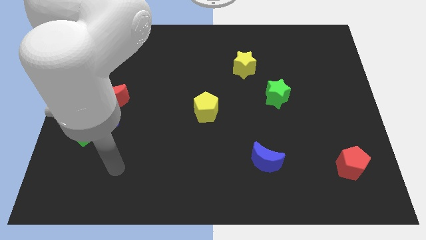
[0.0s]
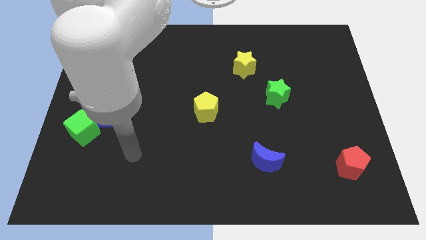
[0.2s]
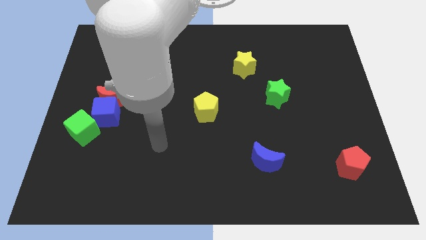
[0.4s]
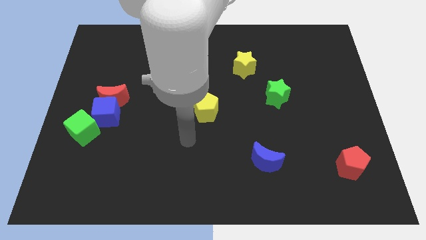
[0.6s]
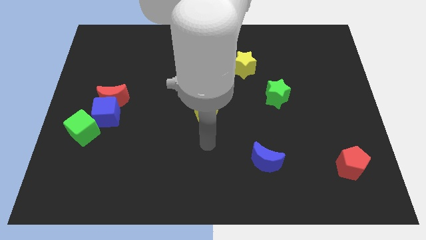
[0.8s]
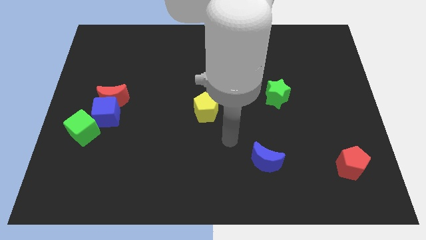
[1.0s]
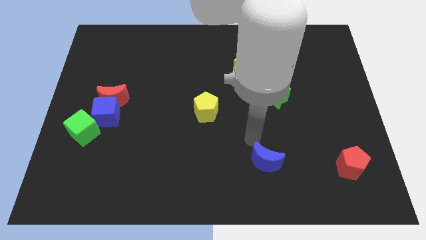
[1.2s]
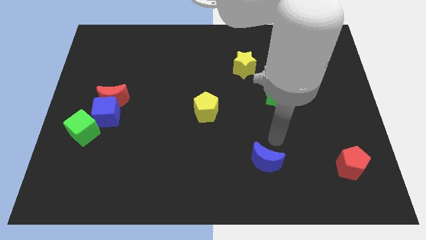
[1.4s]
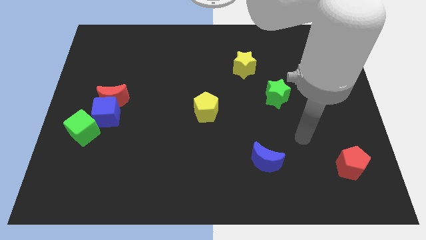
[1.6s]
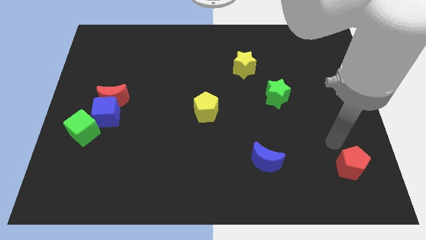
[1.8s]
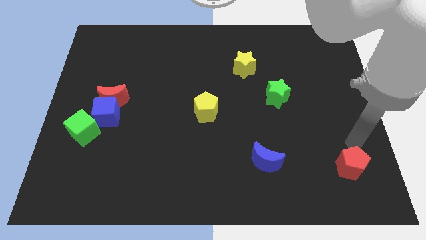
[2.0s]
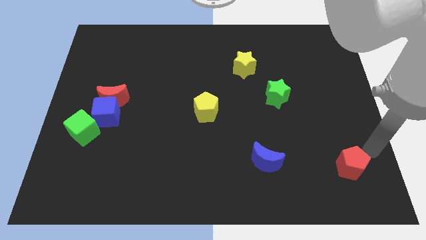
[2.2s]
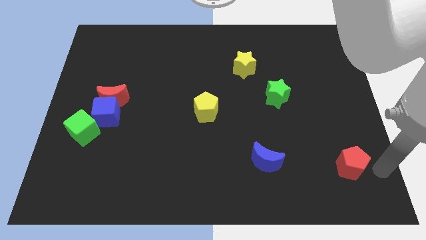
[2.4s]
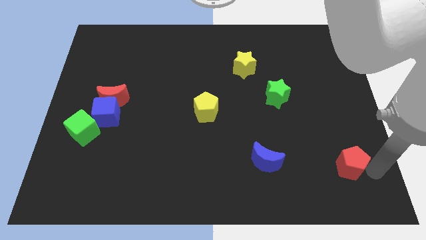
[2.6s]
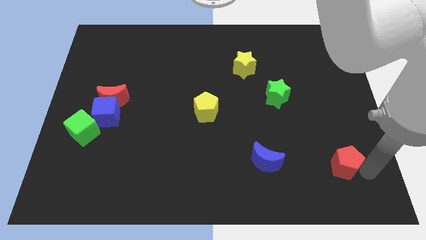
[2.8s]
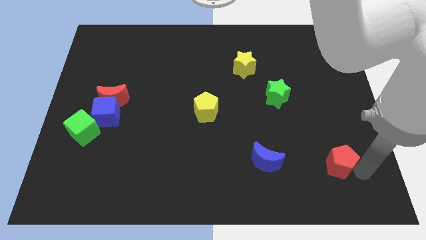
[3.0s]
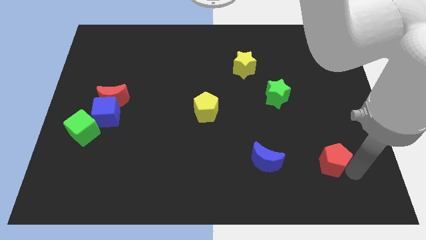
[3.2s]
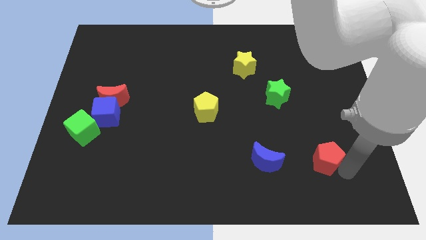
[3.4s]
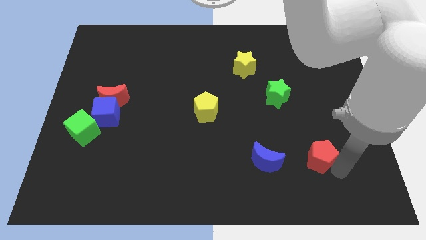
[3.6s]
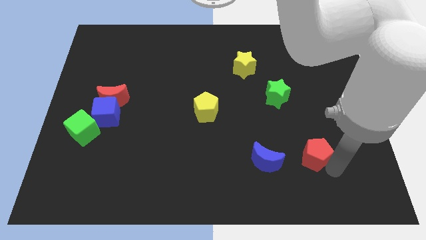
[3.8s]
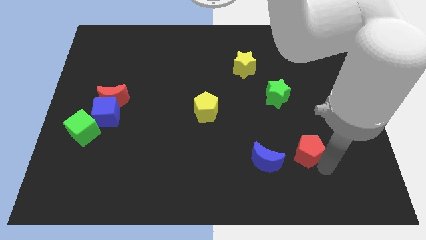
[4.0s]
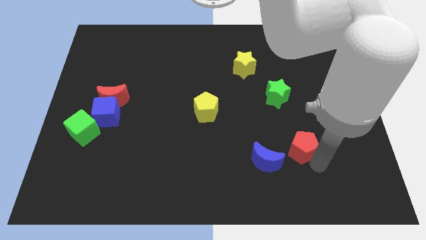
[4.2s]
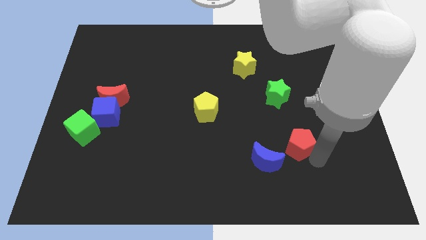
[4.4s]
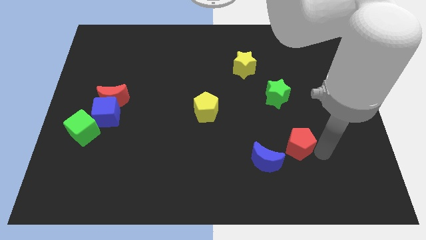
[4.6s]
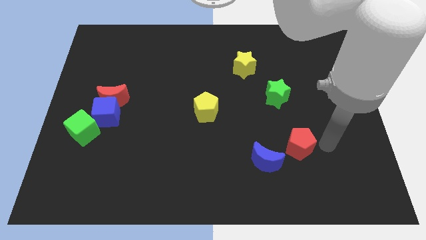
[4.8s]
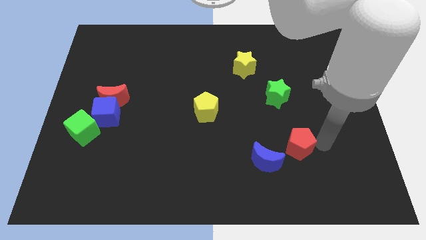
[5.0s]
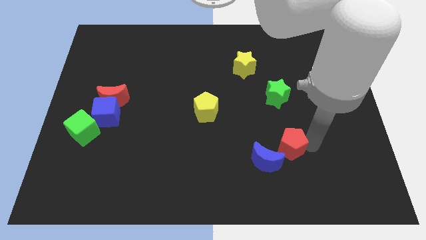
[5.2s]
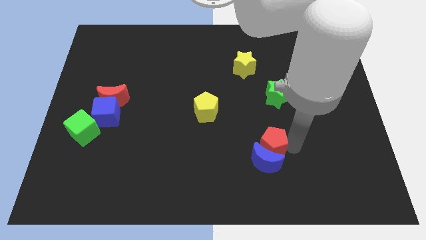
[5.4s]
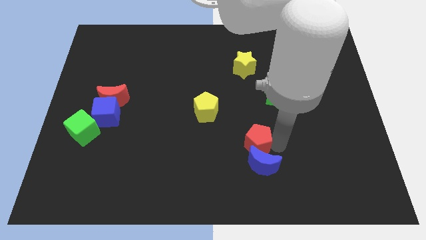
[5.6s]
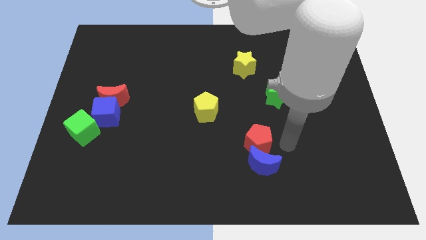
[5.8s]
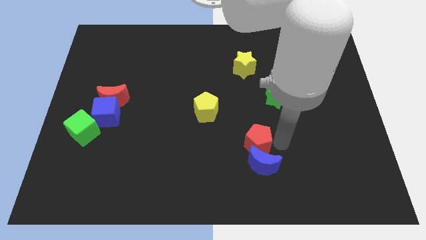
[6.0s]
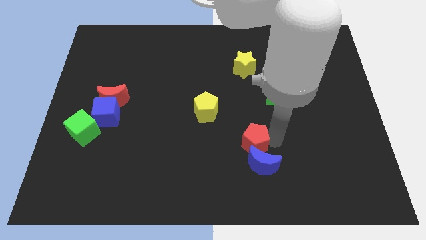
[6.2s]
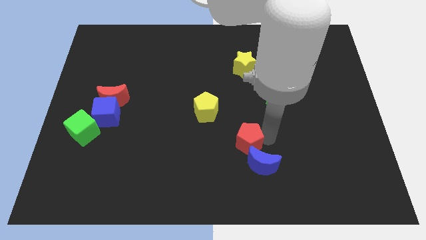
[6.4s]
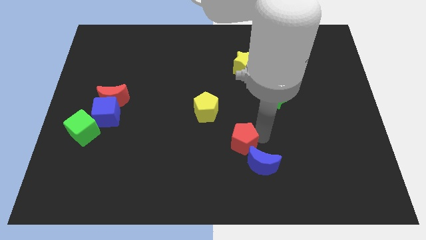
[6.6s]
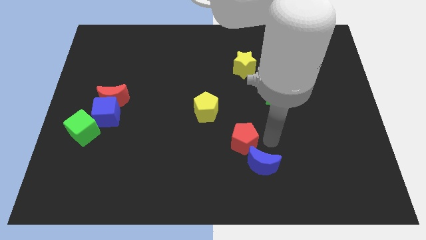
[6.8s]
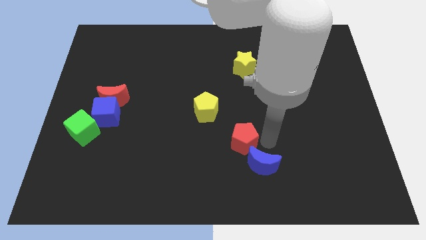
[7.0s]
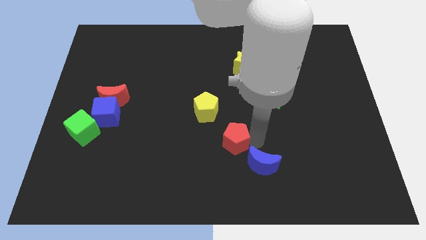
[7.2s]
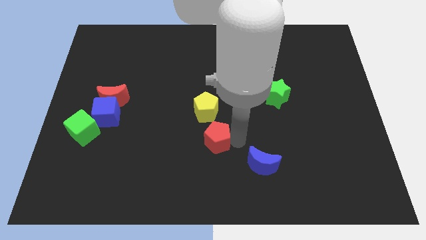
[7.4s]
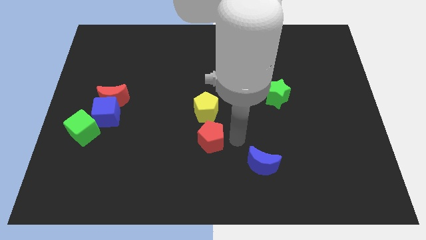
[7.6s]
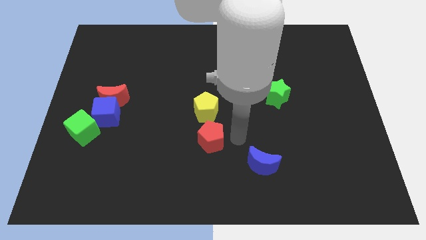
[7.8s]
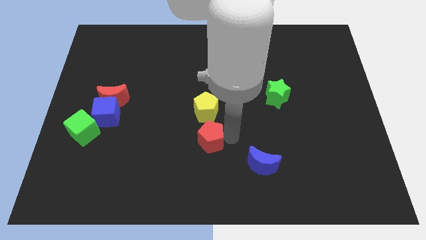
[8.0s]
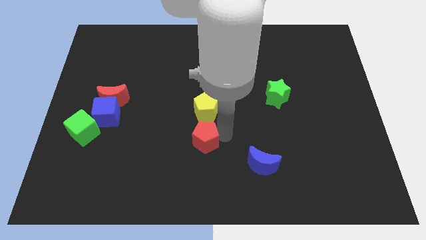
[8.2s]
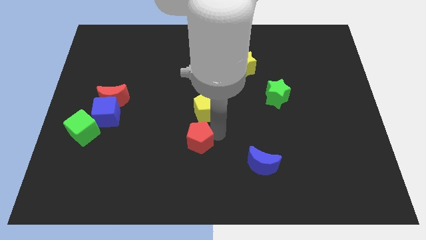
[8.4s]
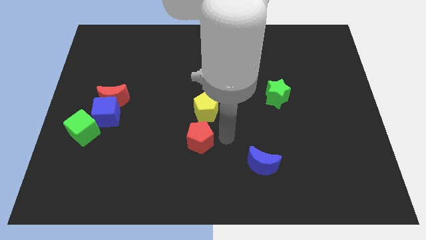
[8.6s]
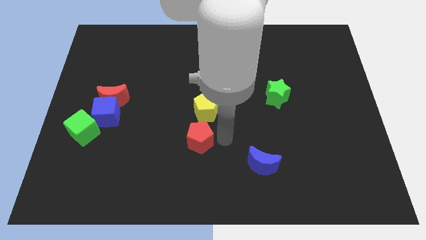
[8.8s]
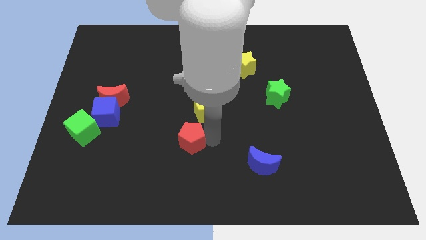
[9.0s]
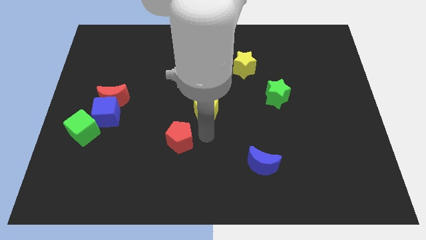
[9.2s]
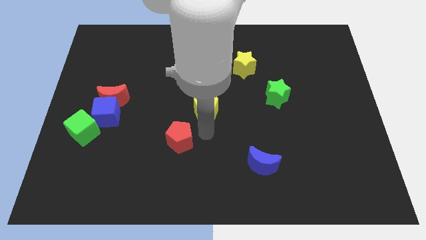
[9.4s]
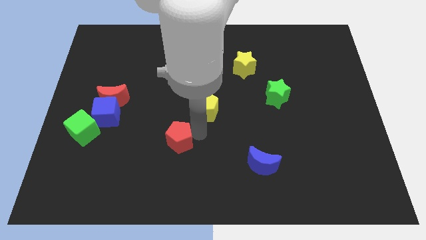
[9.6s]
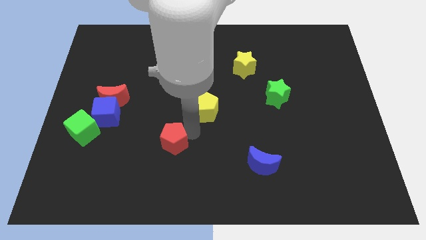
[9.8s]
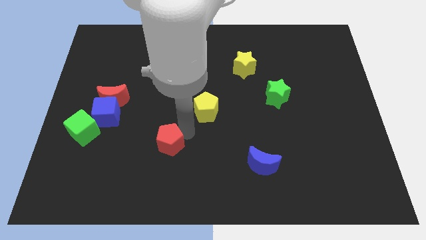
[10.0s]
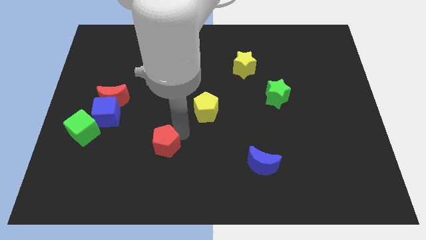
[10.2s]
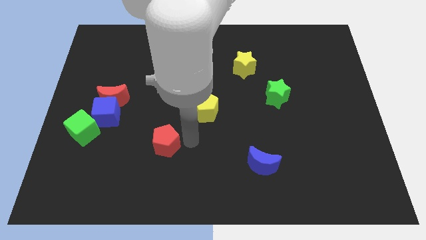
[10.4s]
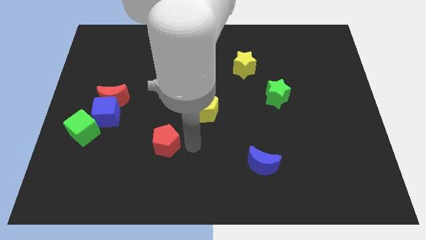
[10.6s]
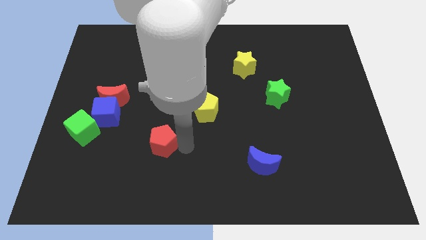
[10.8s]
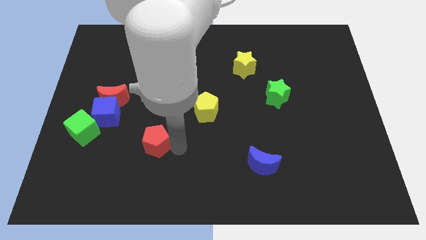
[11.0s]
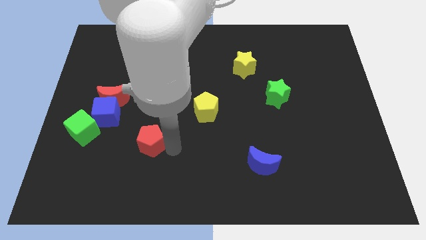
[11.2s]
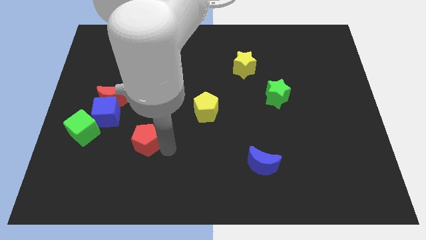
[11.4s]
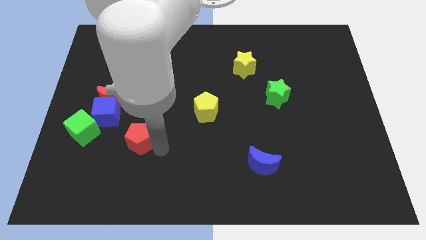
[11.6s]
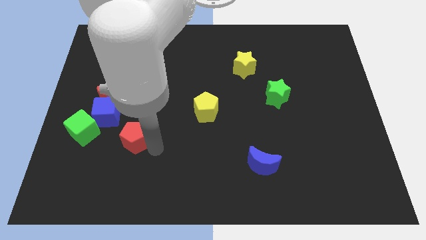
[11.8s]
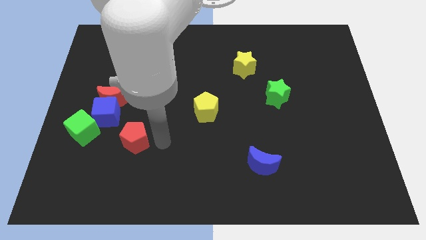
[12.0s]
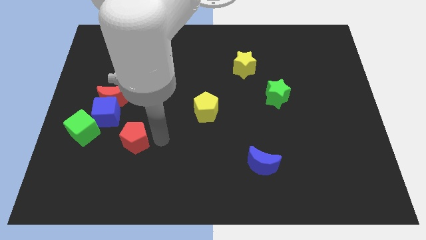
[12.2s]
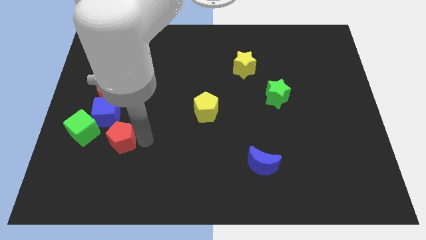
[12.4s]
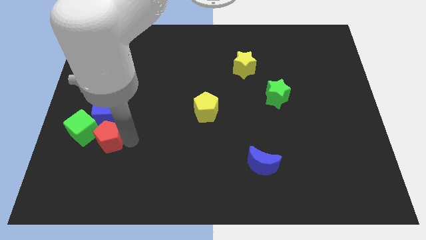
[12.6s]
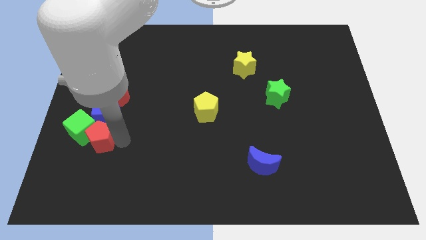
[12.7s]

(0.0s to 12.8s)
slide the red pentagon to the green cube

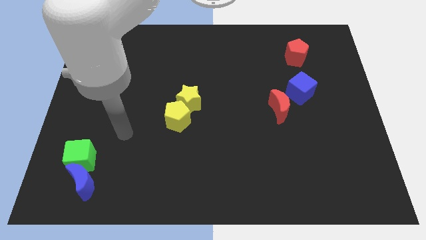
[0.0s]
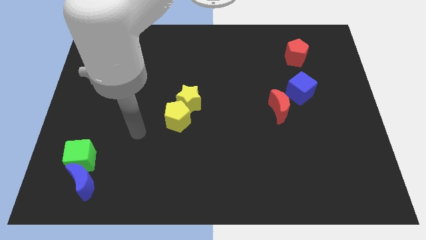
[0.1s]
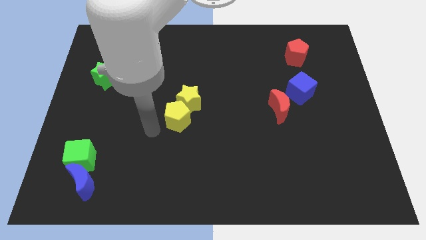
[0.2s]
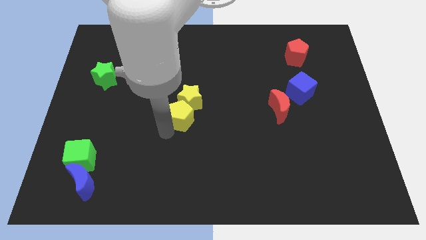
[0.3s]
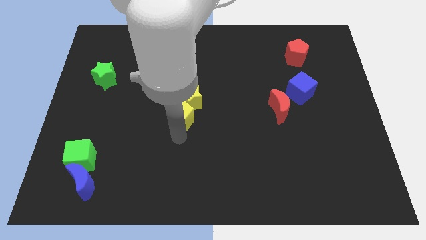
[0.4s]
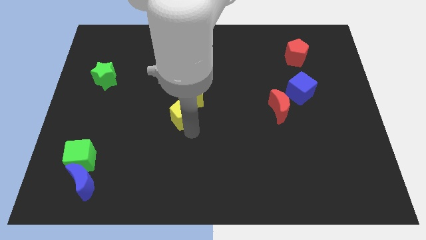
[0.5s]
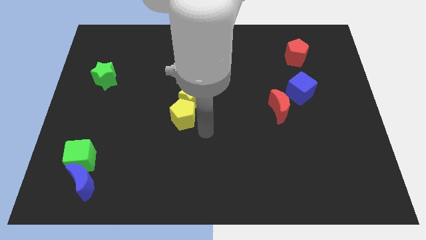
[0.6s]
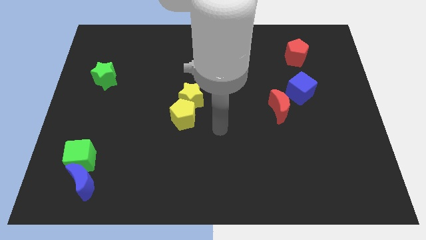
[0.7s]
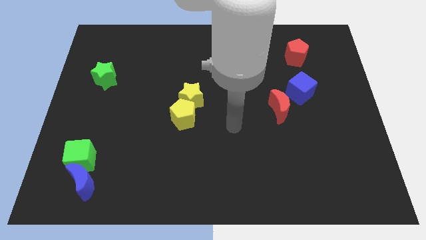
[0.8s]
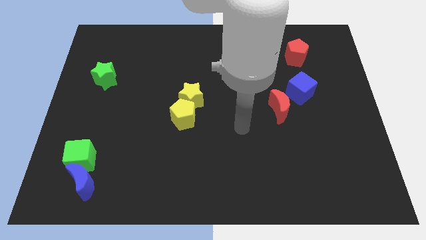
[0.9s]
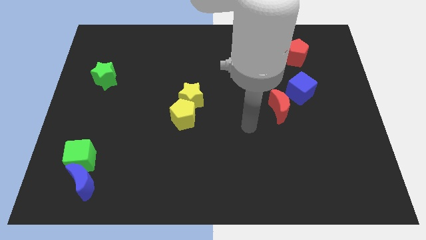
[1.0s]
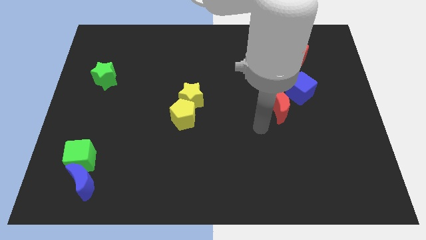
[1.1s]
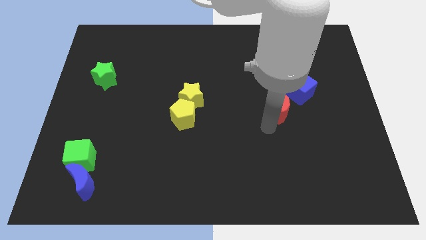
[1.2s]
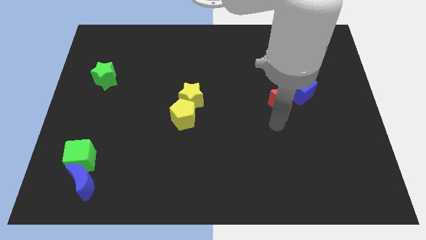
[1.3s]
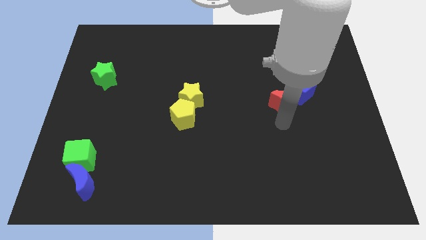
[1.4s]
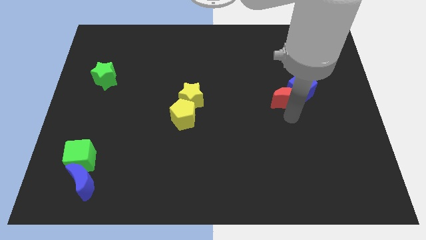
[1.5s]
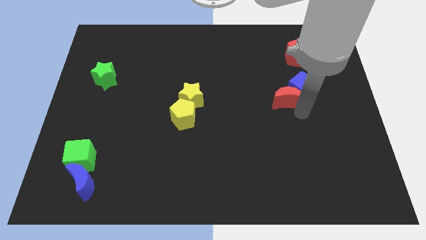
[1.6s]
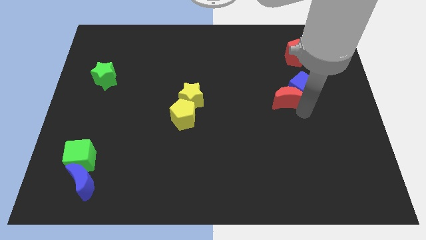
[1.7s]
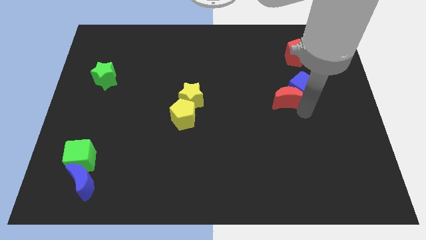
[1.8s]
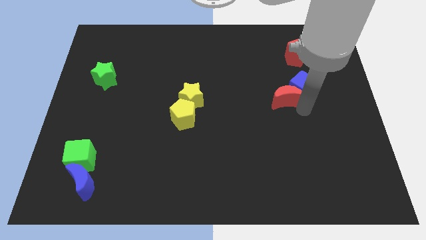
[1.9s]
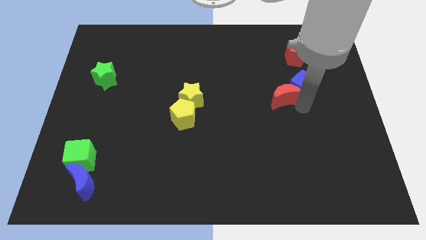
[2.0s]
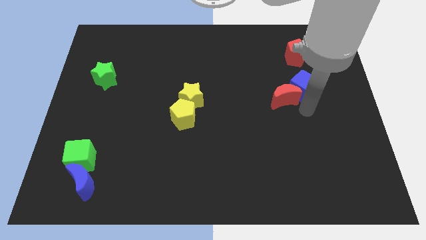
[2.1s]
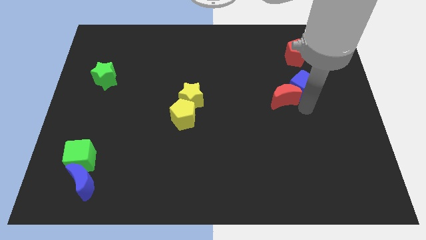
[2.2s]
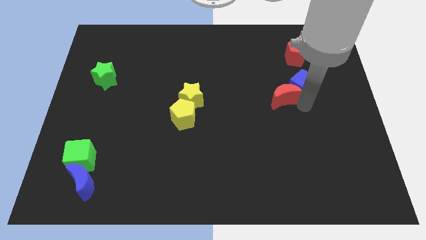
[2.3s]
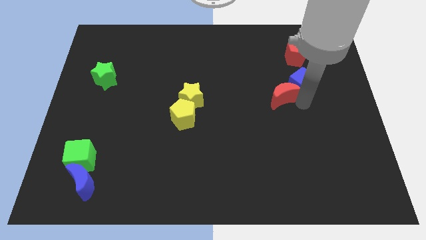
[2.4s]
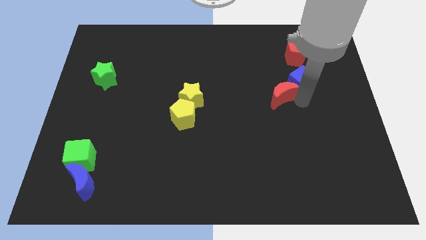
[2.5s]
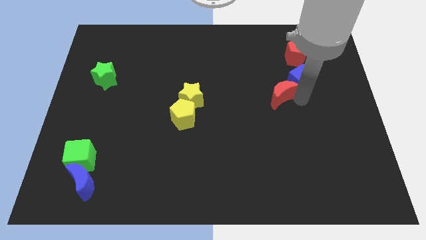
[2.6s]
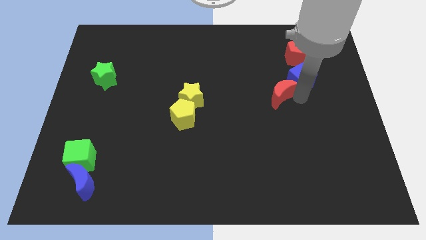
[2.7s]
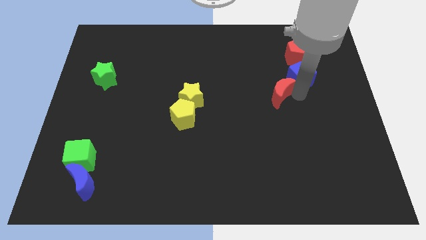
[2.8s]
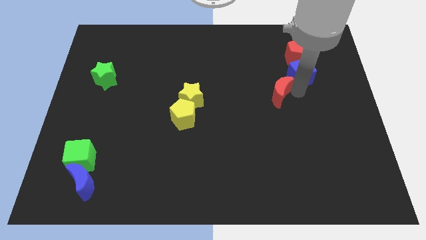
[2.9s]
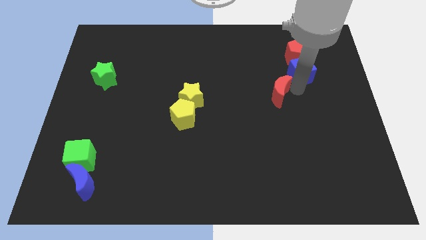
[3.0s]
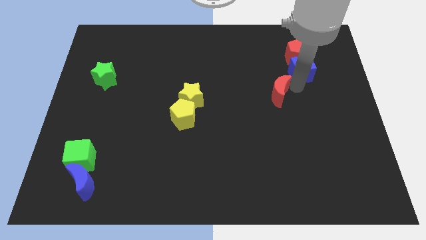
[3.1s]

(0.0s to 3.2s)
slide the blue cube to the red pentagon
